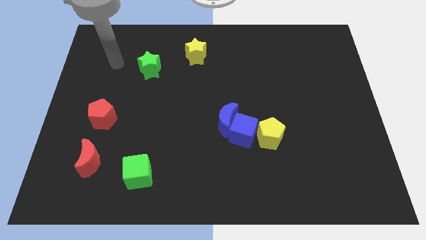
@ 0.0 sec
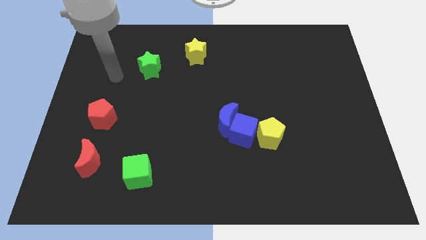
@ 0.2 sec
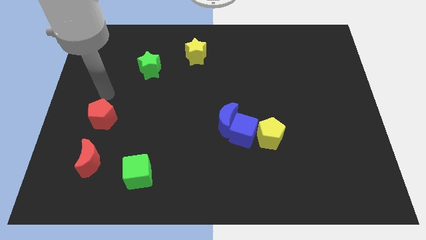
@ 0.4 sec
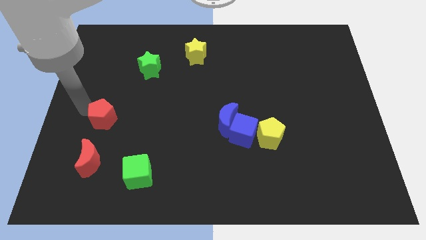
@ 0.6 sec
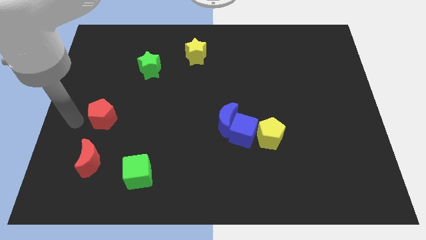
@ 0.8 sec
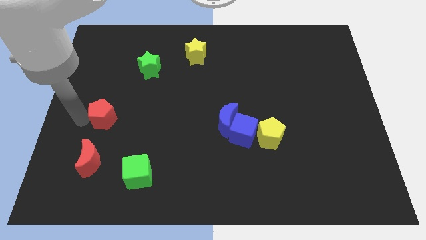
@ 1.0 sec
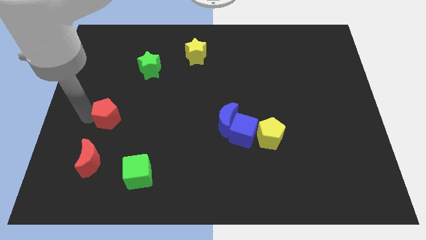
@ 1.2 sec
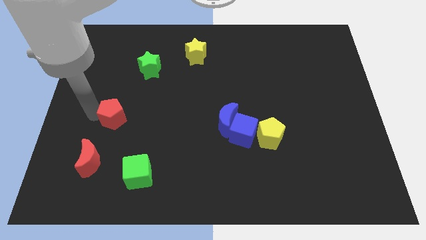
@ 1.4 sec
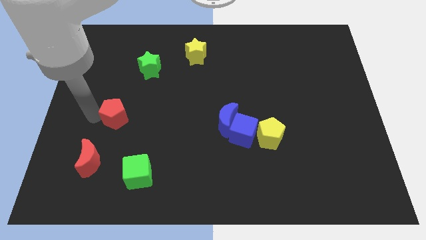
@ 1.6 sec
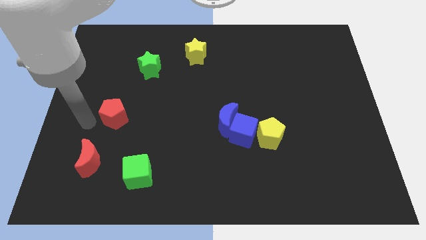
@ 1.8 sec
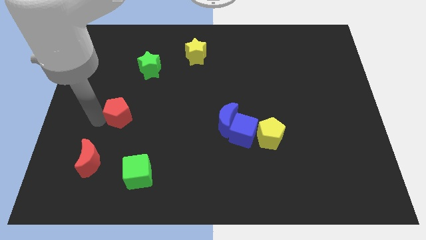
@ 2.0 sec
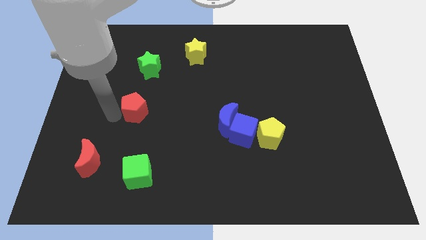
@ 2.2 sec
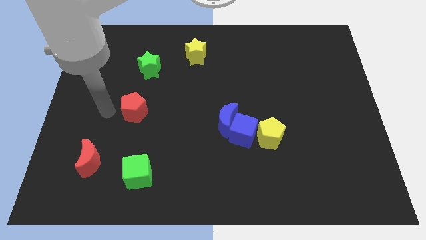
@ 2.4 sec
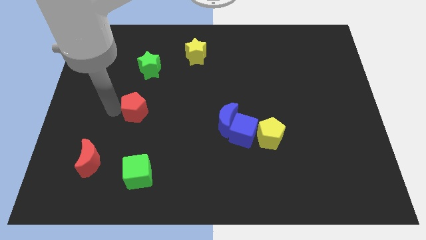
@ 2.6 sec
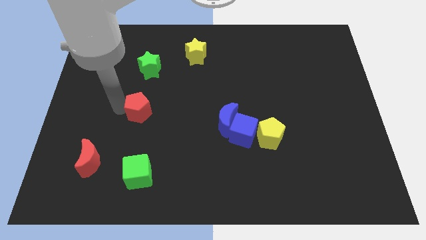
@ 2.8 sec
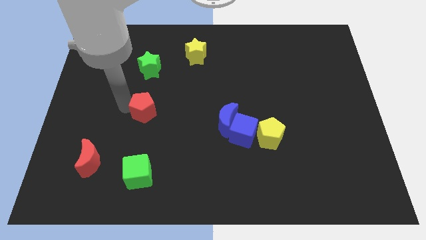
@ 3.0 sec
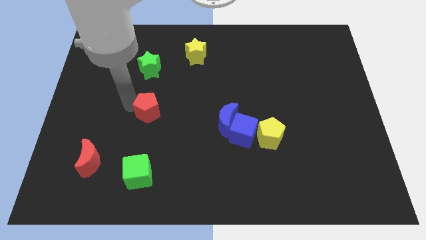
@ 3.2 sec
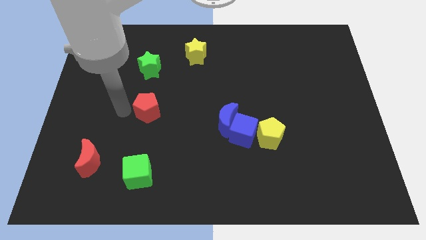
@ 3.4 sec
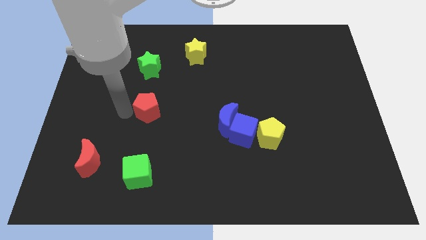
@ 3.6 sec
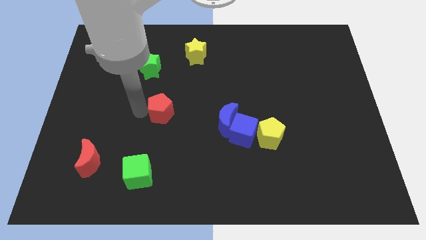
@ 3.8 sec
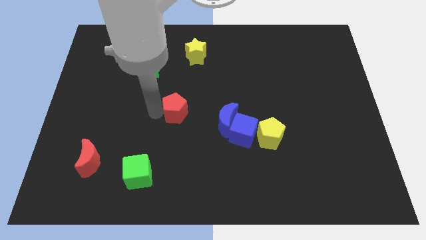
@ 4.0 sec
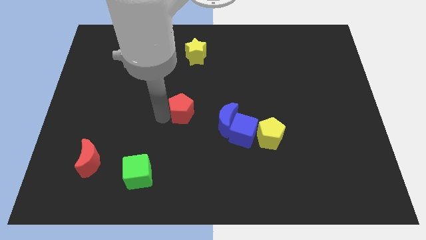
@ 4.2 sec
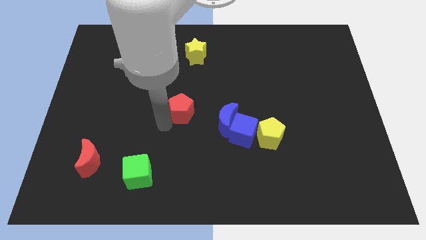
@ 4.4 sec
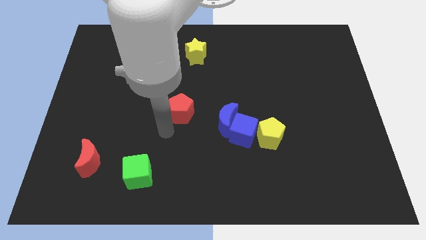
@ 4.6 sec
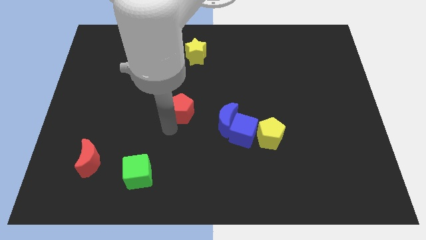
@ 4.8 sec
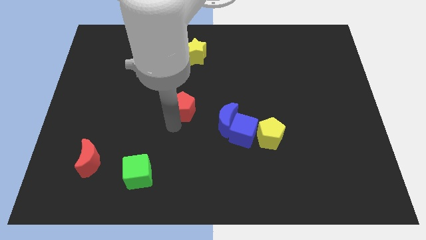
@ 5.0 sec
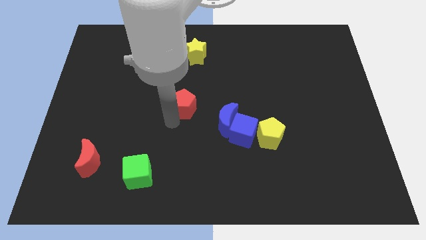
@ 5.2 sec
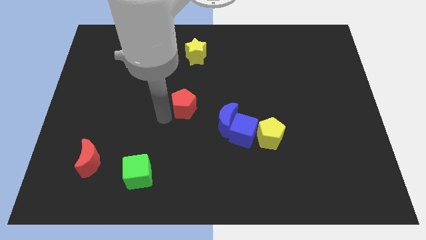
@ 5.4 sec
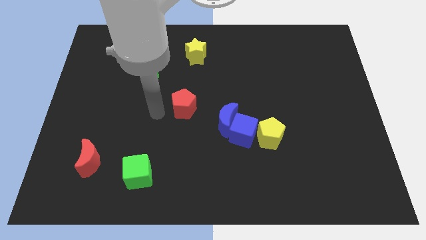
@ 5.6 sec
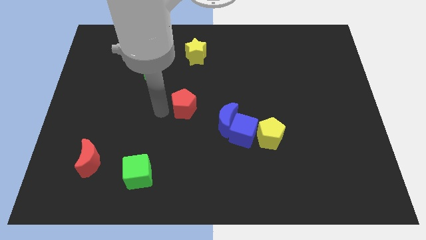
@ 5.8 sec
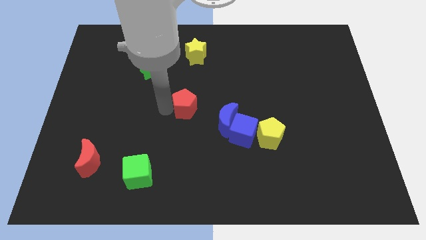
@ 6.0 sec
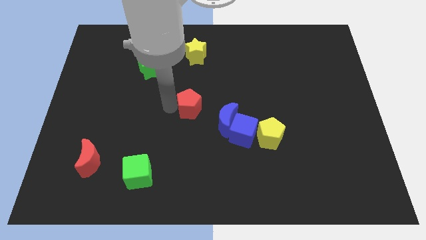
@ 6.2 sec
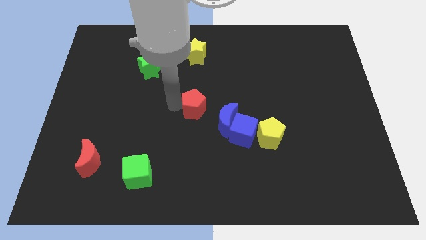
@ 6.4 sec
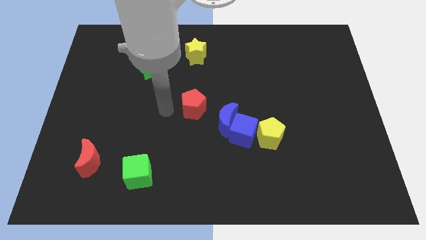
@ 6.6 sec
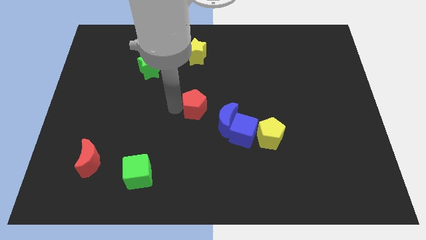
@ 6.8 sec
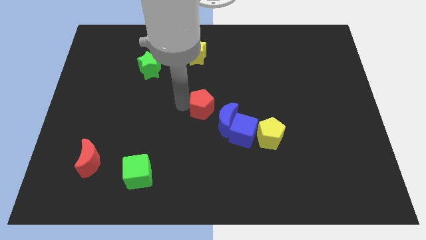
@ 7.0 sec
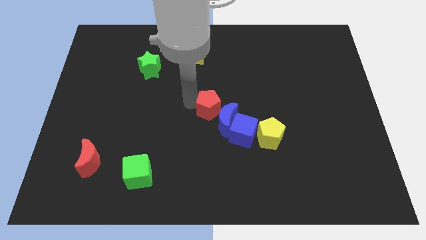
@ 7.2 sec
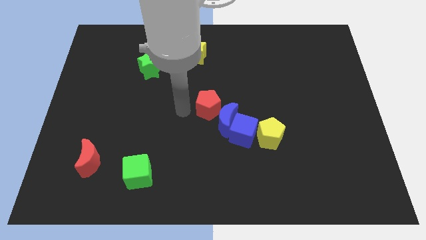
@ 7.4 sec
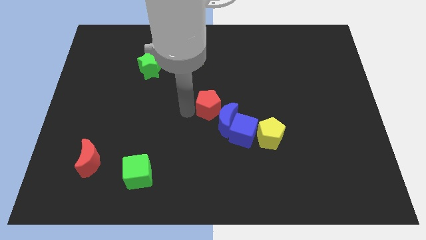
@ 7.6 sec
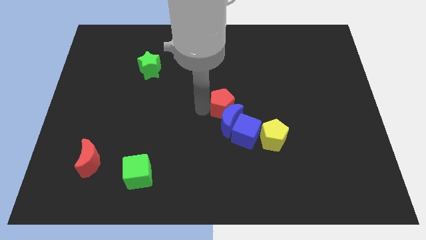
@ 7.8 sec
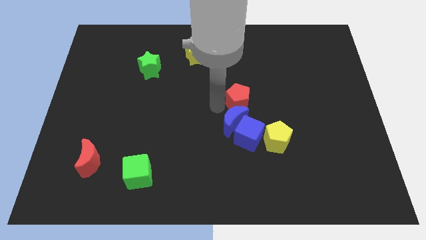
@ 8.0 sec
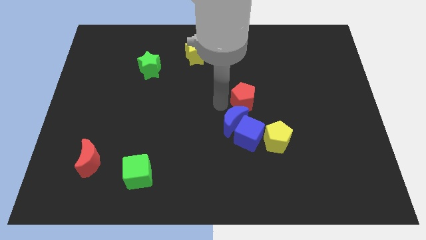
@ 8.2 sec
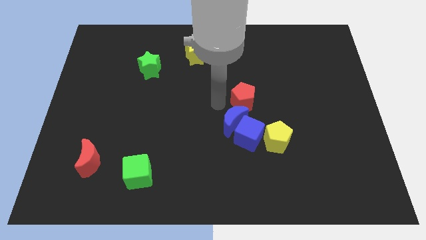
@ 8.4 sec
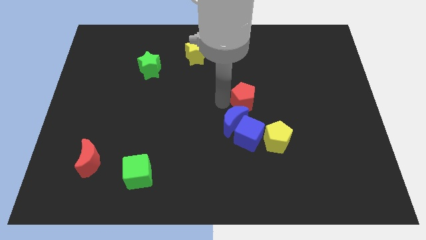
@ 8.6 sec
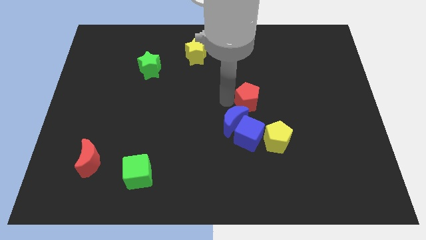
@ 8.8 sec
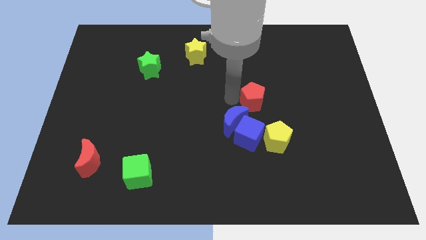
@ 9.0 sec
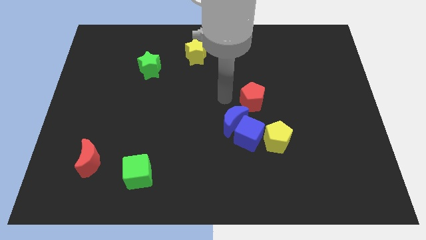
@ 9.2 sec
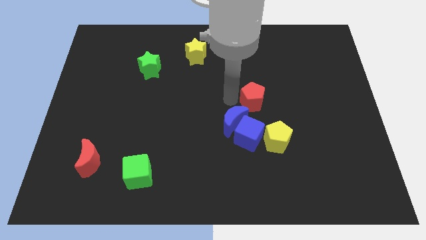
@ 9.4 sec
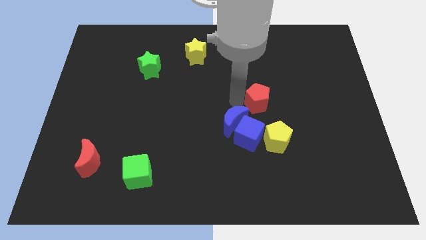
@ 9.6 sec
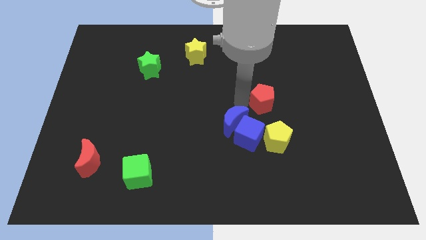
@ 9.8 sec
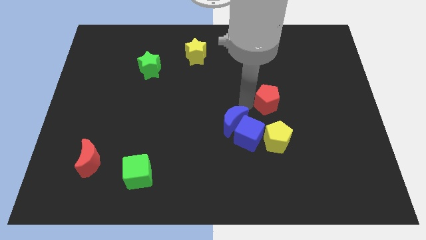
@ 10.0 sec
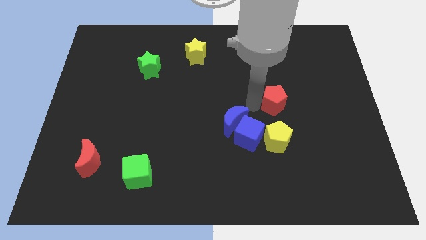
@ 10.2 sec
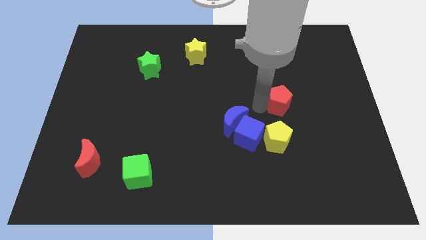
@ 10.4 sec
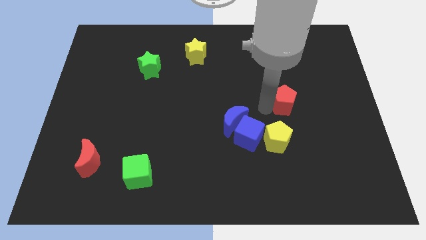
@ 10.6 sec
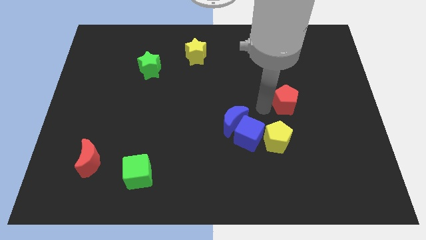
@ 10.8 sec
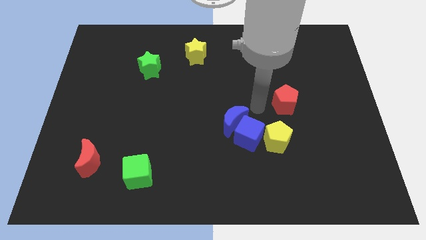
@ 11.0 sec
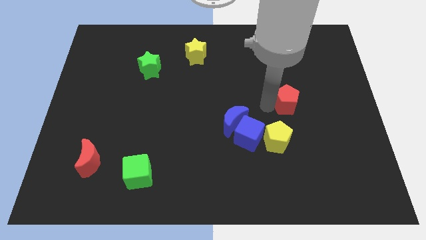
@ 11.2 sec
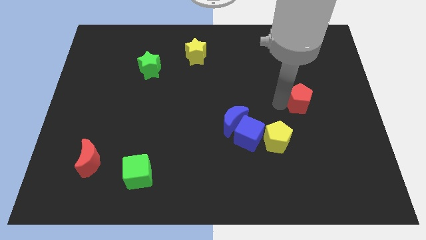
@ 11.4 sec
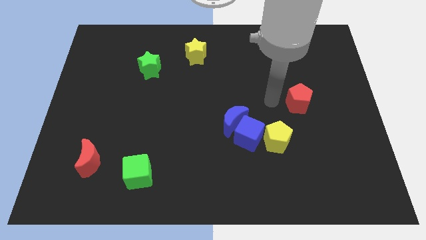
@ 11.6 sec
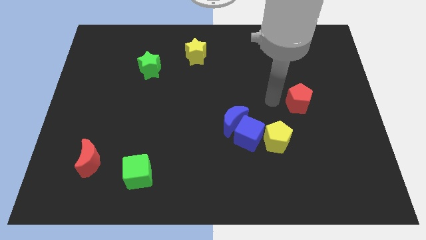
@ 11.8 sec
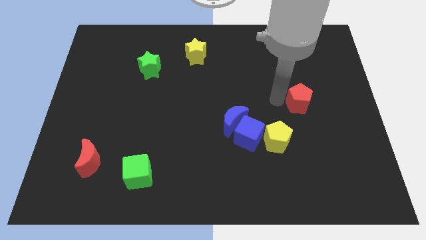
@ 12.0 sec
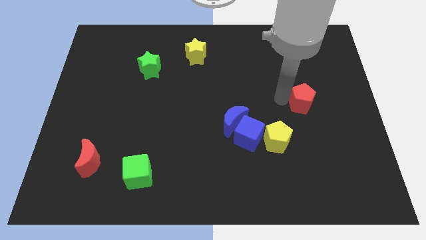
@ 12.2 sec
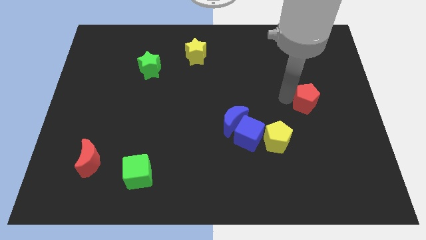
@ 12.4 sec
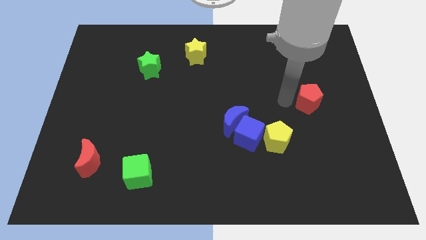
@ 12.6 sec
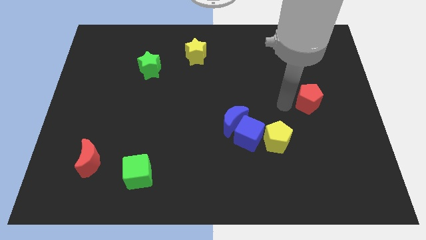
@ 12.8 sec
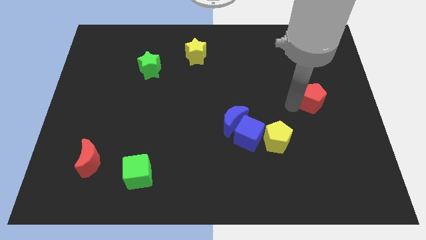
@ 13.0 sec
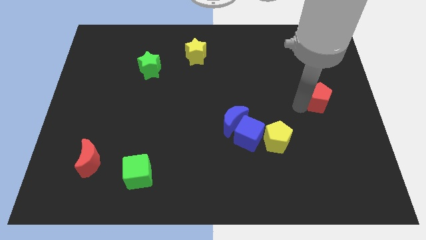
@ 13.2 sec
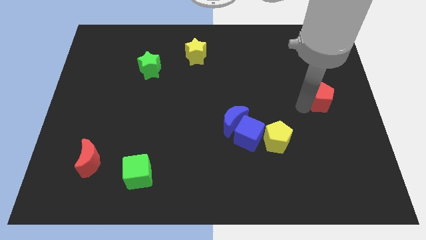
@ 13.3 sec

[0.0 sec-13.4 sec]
put the red pentagon to the right side
